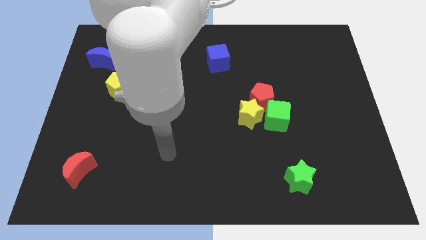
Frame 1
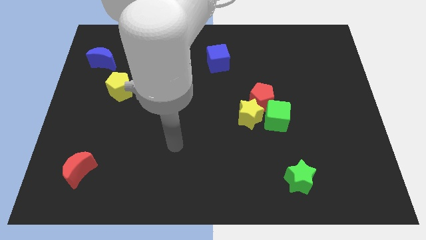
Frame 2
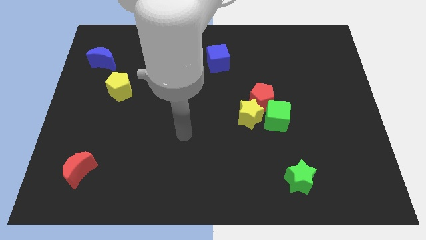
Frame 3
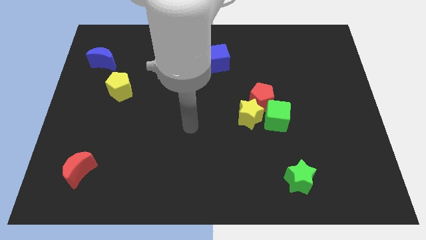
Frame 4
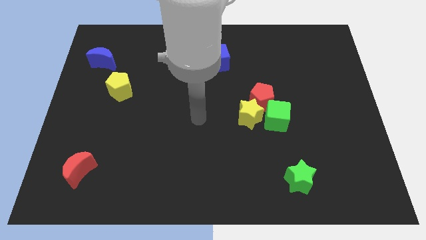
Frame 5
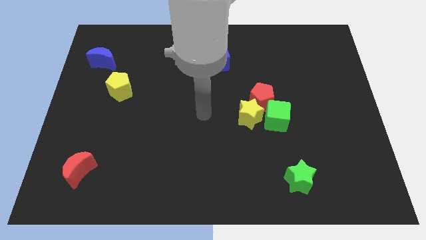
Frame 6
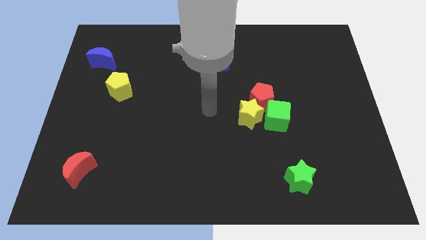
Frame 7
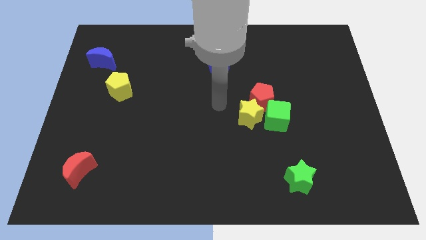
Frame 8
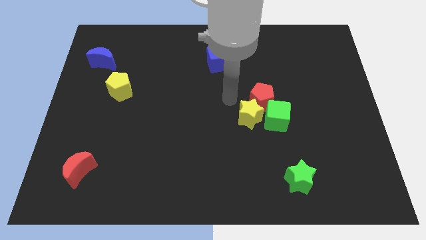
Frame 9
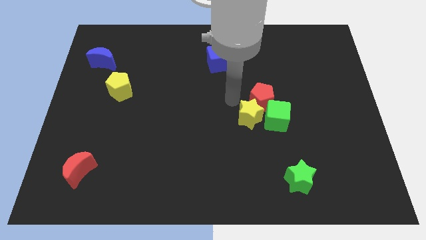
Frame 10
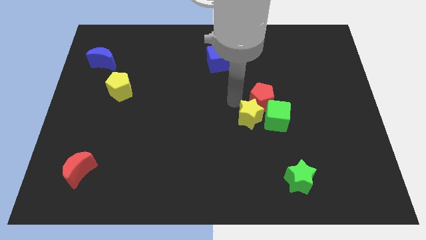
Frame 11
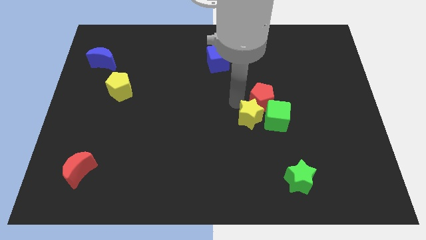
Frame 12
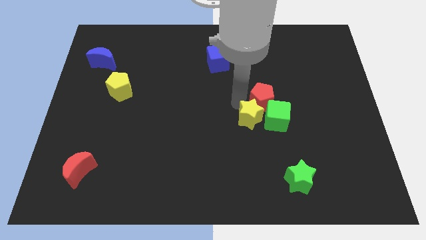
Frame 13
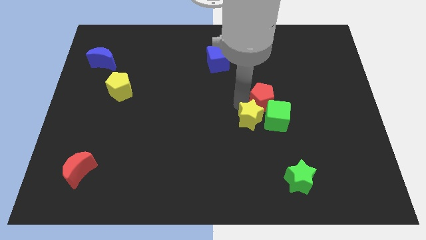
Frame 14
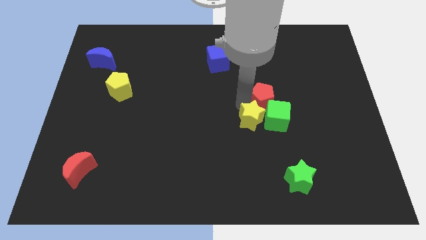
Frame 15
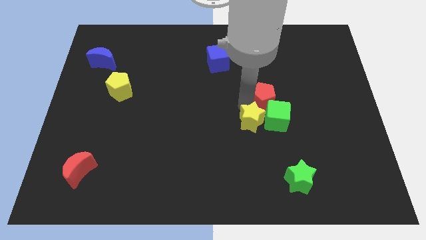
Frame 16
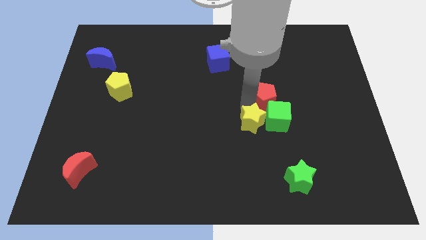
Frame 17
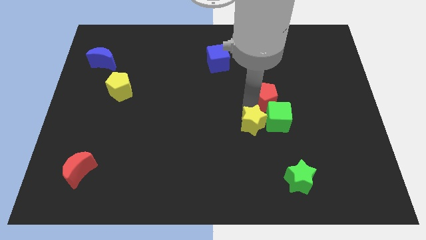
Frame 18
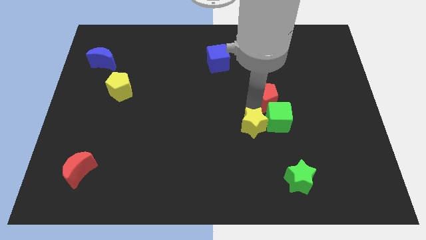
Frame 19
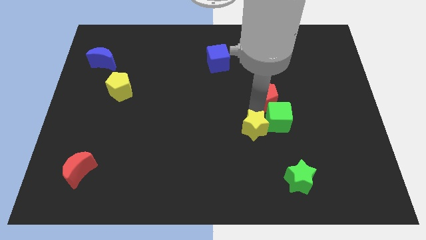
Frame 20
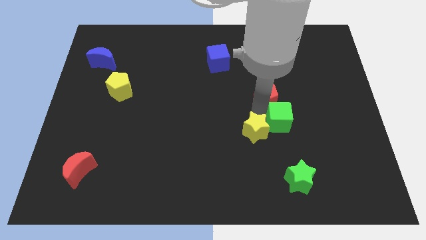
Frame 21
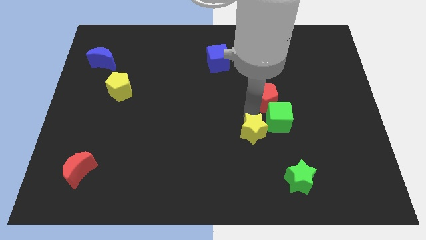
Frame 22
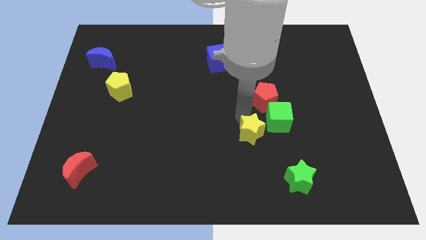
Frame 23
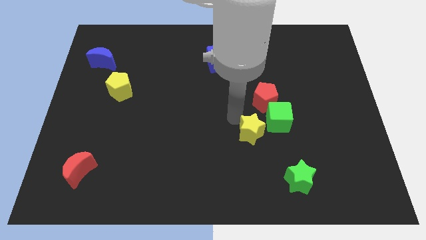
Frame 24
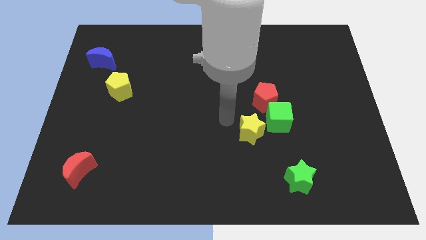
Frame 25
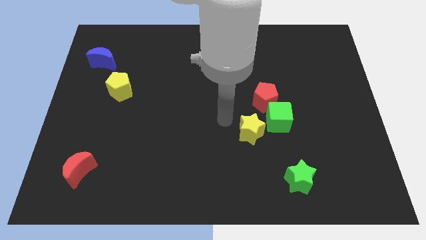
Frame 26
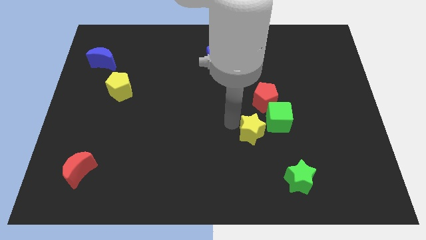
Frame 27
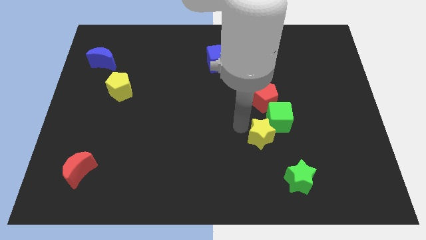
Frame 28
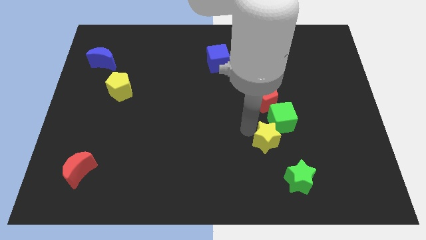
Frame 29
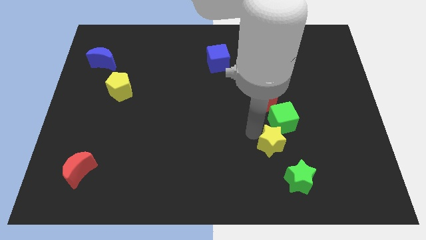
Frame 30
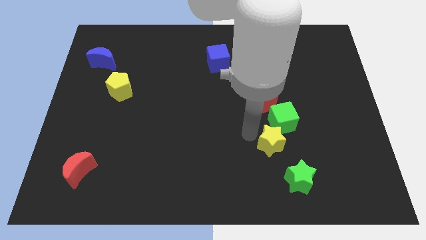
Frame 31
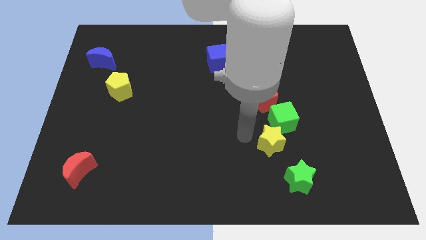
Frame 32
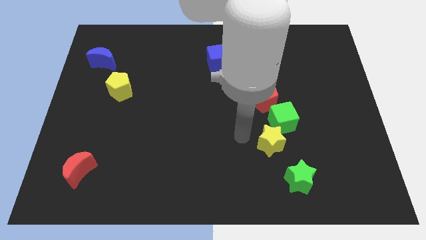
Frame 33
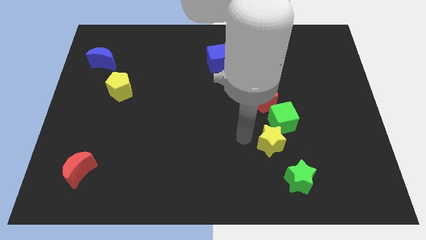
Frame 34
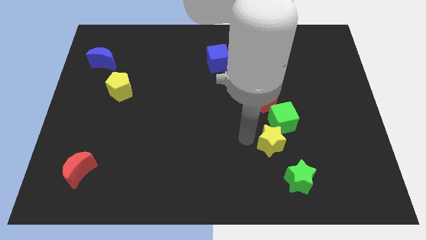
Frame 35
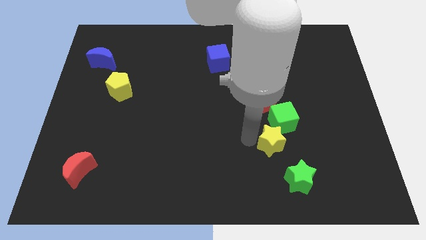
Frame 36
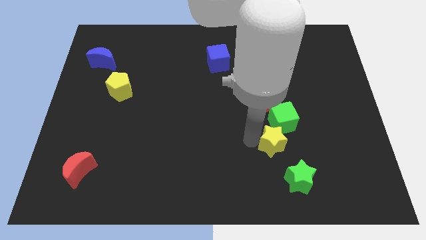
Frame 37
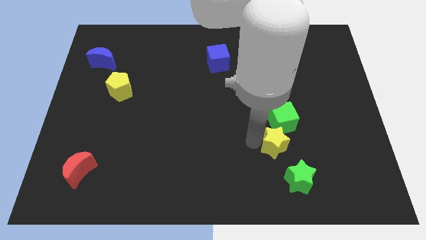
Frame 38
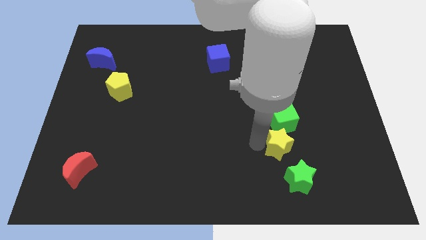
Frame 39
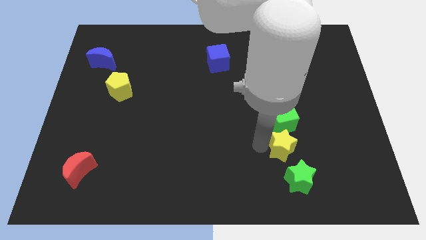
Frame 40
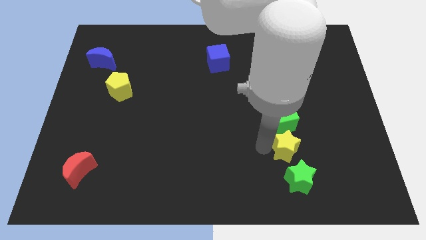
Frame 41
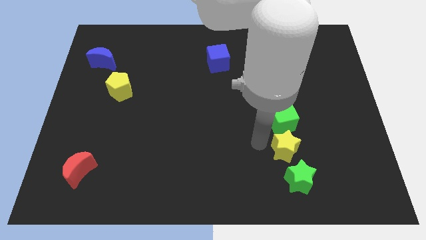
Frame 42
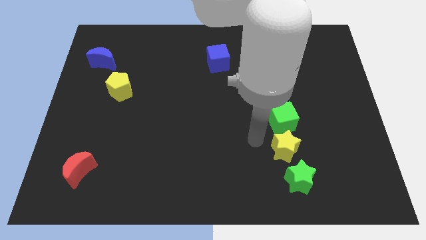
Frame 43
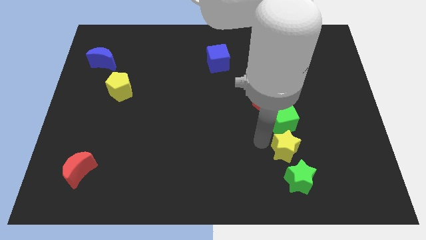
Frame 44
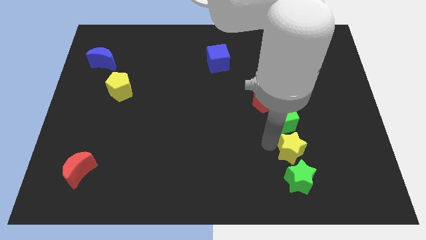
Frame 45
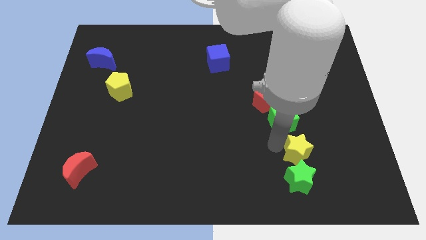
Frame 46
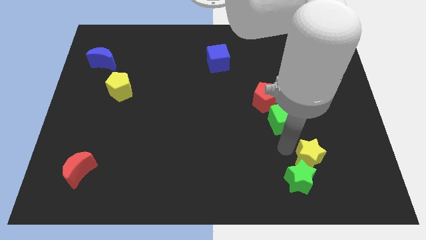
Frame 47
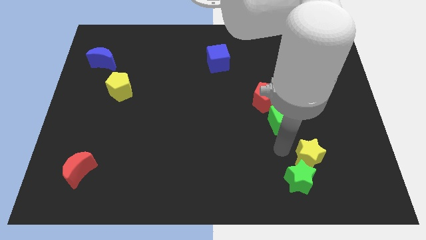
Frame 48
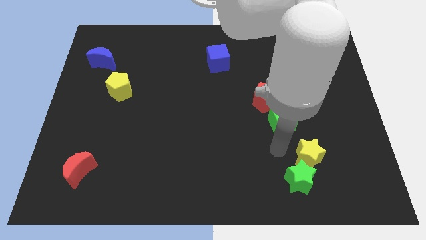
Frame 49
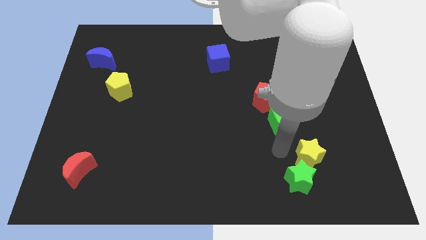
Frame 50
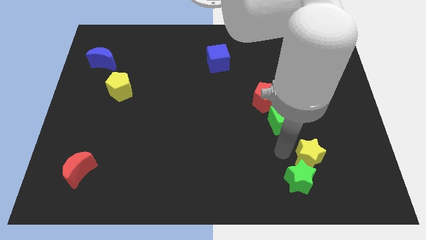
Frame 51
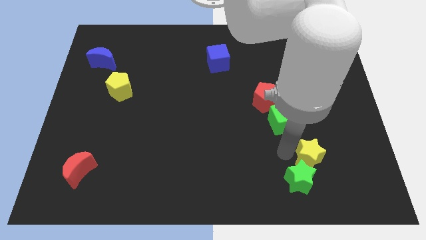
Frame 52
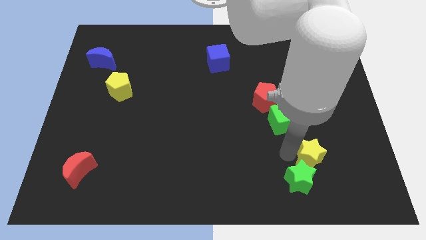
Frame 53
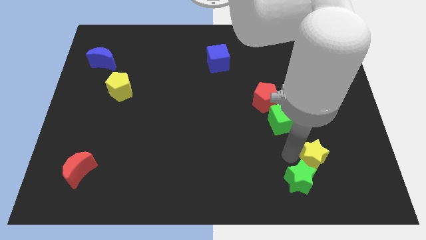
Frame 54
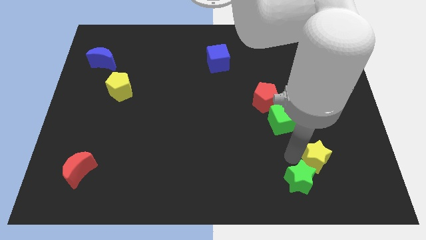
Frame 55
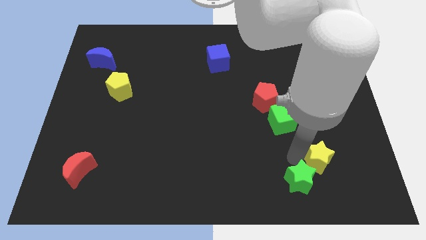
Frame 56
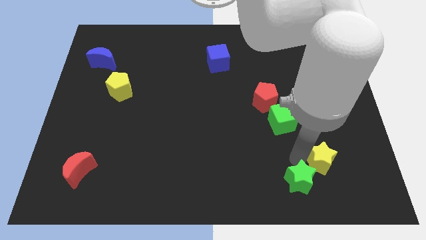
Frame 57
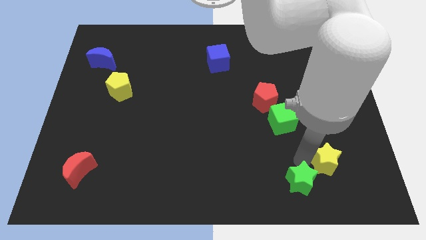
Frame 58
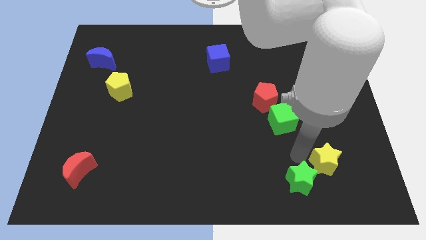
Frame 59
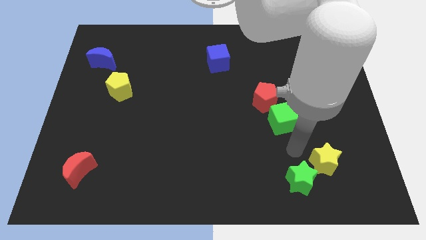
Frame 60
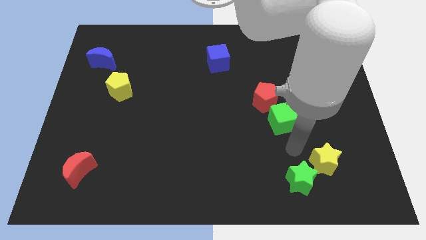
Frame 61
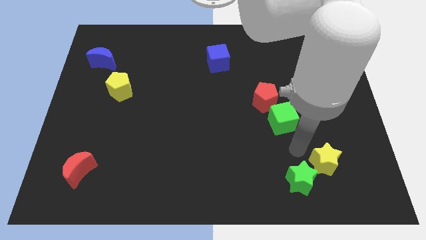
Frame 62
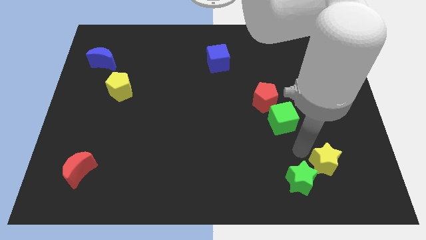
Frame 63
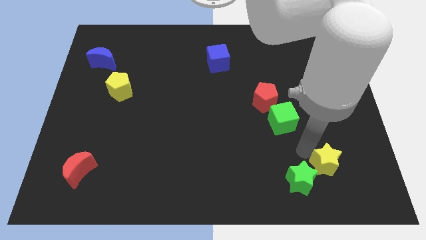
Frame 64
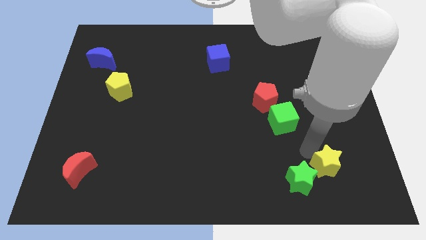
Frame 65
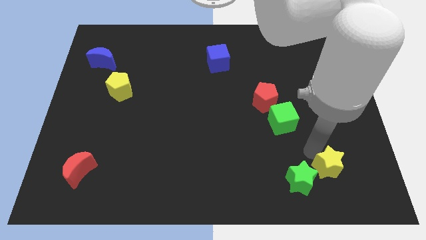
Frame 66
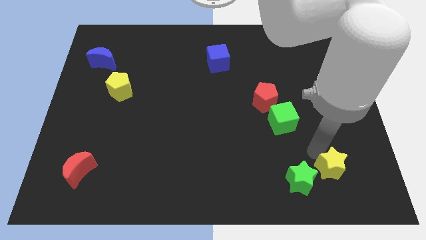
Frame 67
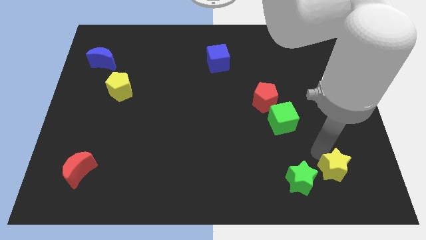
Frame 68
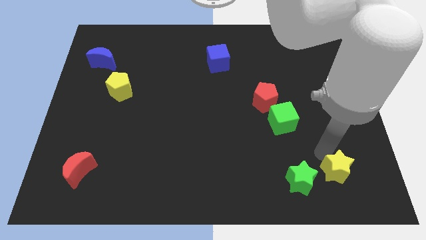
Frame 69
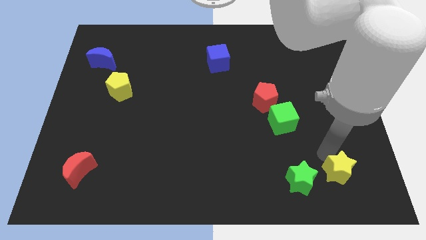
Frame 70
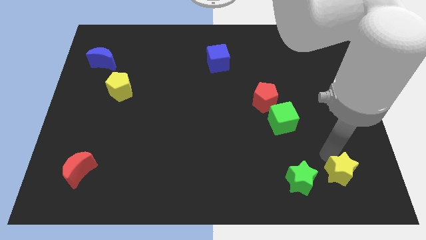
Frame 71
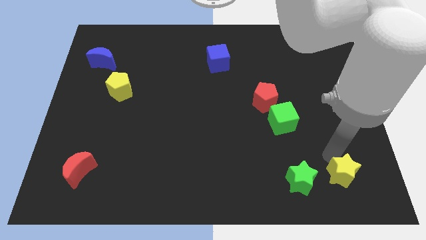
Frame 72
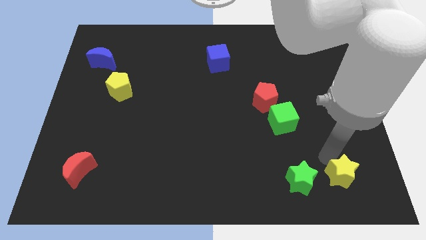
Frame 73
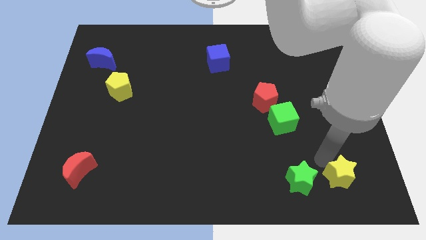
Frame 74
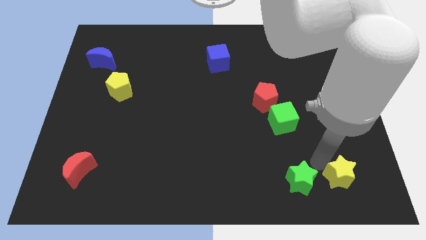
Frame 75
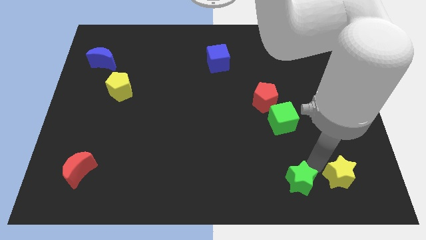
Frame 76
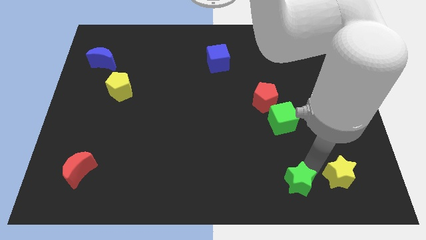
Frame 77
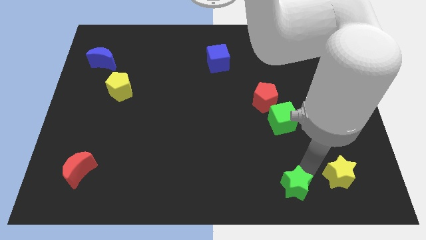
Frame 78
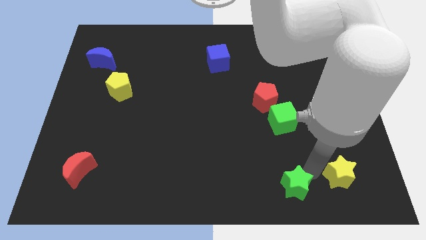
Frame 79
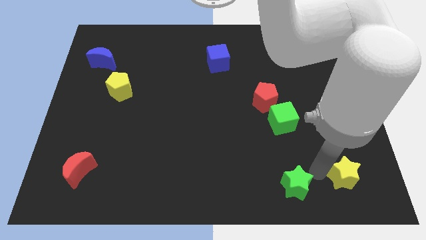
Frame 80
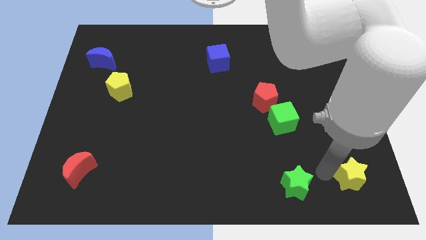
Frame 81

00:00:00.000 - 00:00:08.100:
move the yellow star to the bottom right of the board
